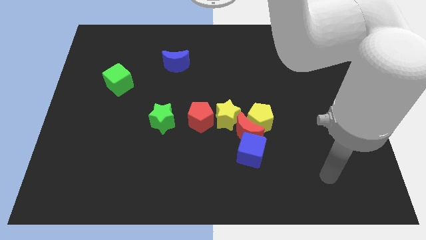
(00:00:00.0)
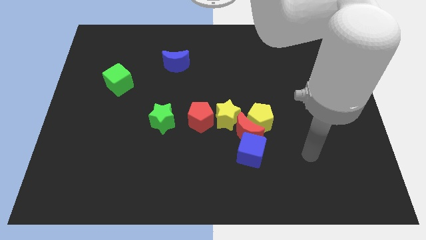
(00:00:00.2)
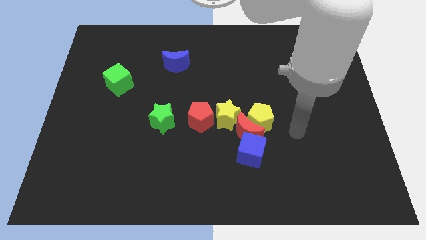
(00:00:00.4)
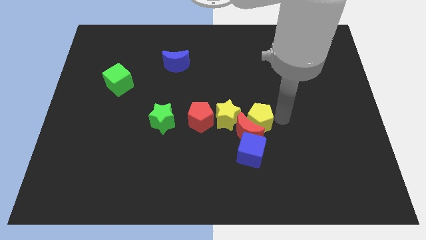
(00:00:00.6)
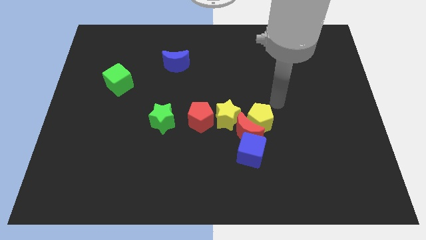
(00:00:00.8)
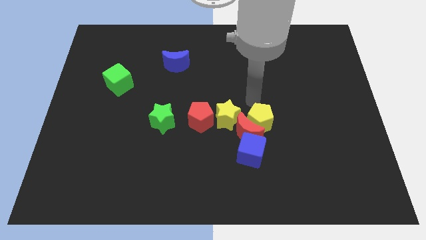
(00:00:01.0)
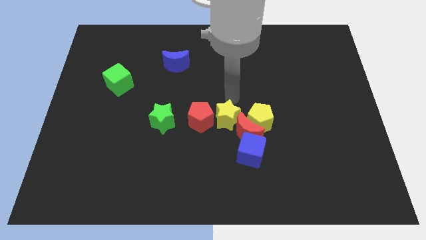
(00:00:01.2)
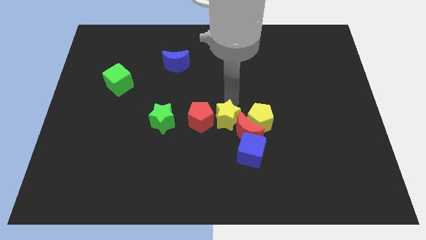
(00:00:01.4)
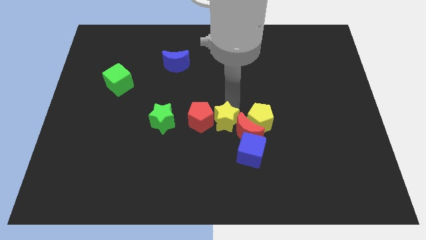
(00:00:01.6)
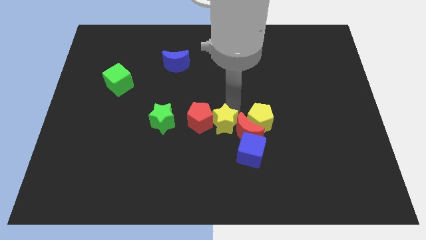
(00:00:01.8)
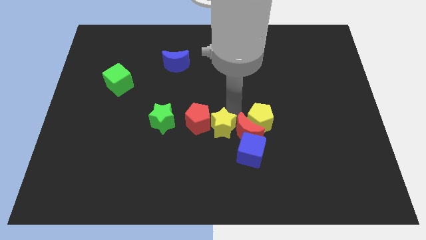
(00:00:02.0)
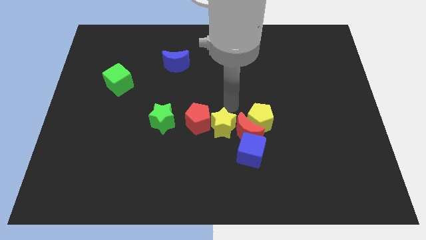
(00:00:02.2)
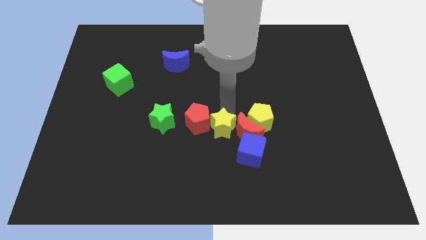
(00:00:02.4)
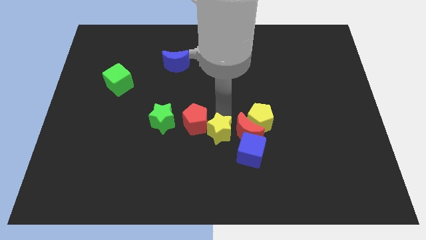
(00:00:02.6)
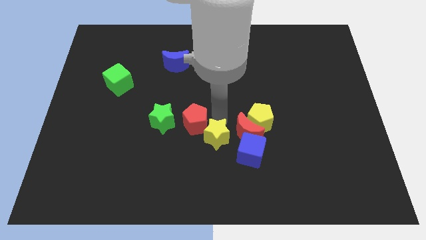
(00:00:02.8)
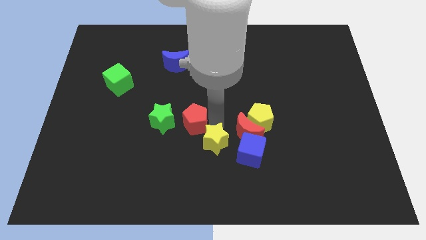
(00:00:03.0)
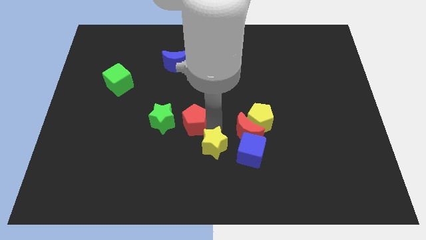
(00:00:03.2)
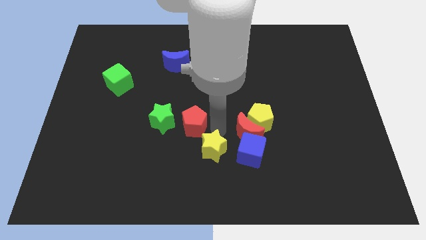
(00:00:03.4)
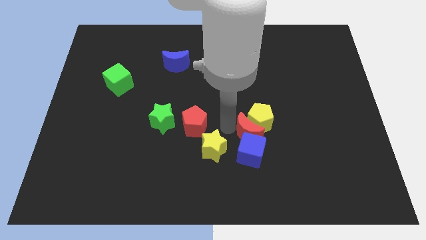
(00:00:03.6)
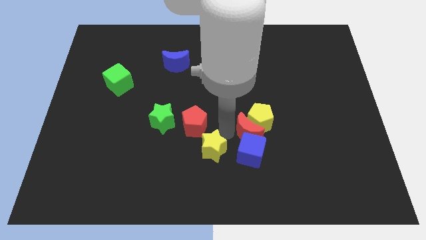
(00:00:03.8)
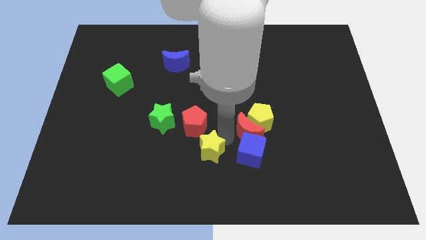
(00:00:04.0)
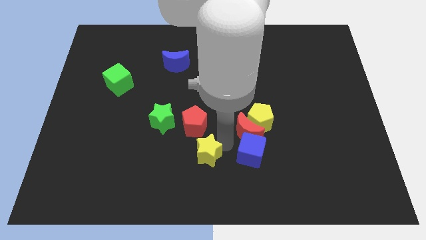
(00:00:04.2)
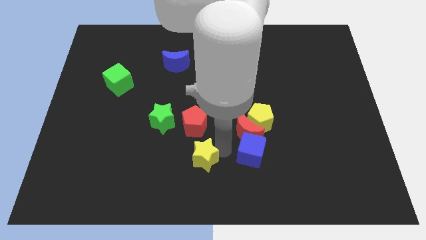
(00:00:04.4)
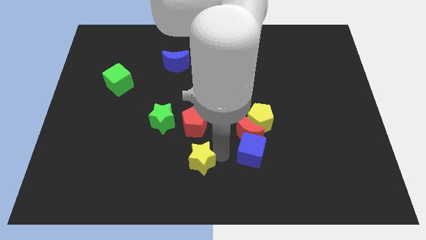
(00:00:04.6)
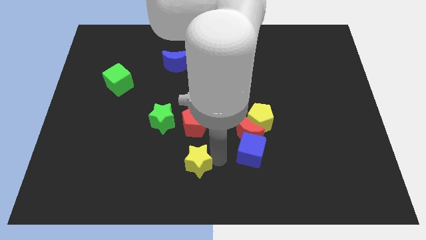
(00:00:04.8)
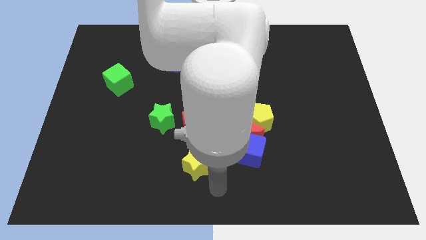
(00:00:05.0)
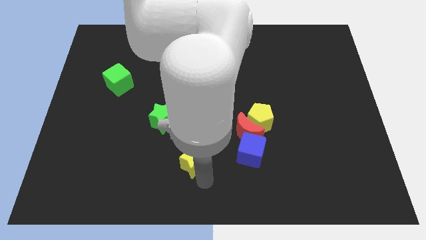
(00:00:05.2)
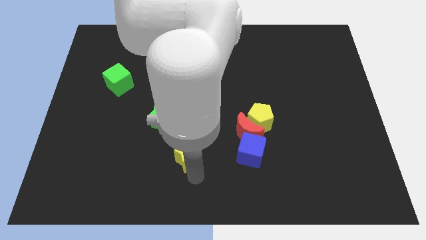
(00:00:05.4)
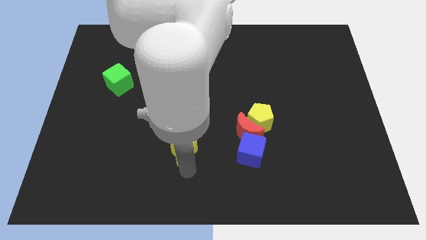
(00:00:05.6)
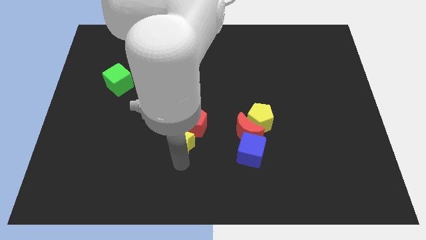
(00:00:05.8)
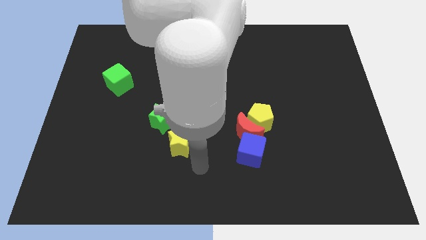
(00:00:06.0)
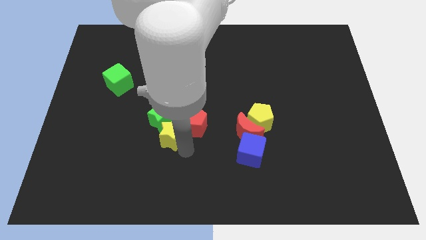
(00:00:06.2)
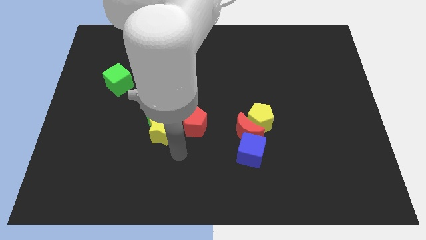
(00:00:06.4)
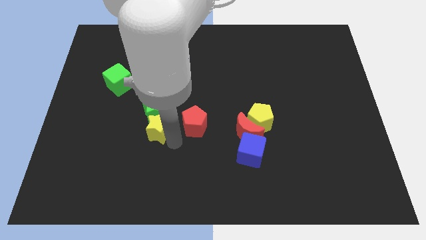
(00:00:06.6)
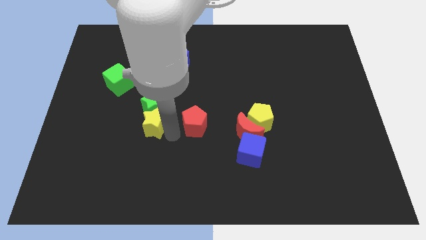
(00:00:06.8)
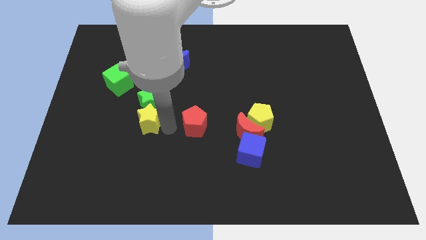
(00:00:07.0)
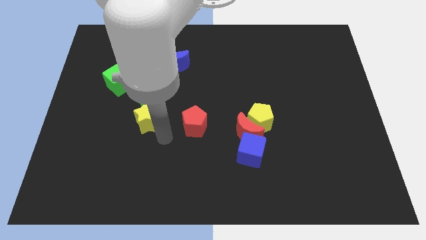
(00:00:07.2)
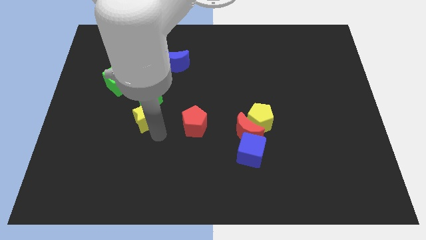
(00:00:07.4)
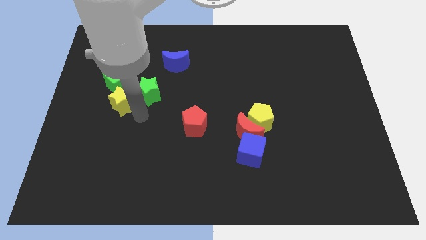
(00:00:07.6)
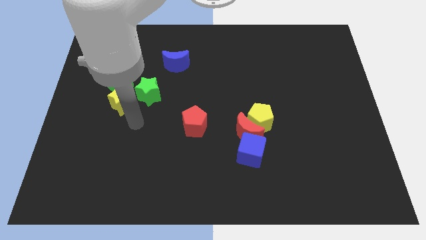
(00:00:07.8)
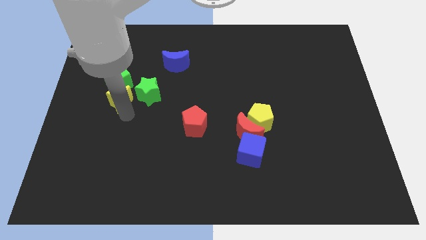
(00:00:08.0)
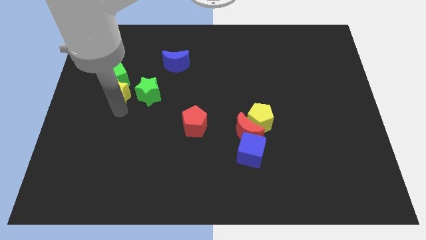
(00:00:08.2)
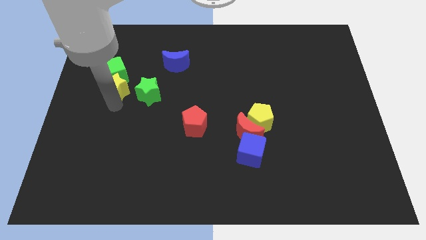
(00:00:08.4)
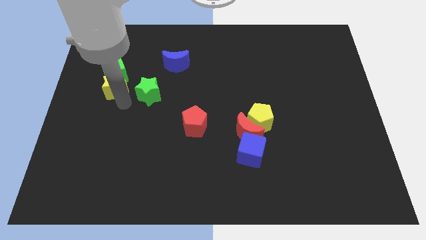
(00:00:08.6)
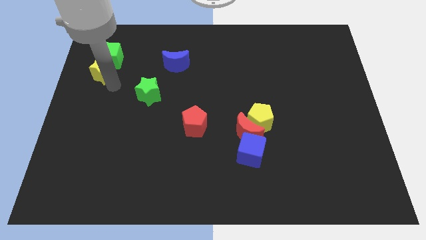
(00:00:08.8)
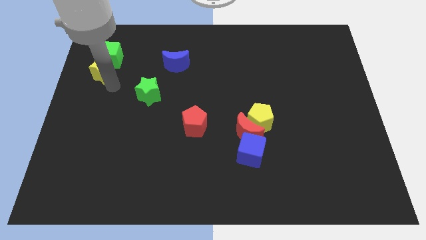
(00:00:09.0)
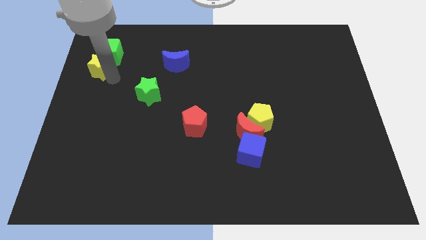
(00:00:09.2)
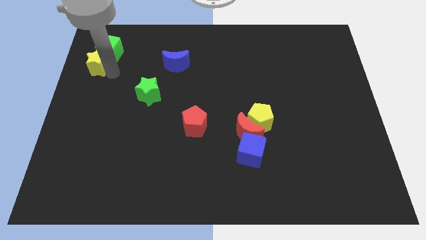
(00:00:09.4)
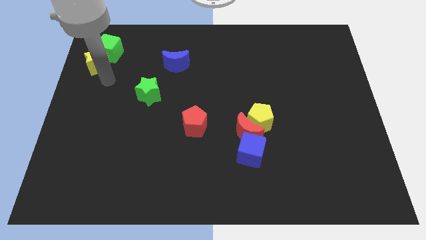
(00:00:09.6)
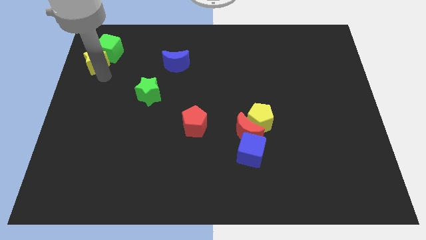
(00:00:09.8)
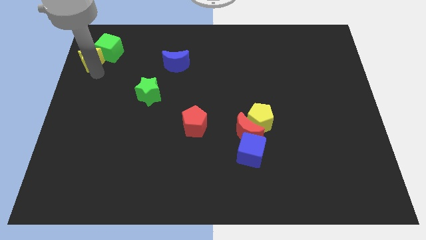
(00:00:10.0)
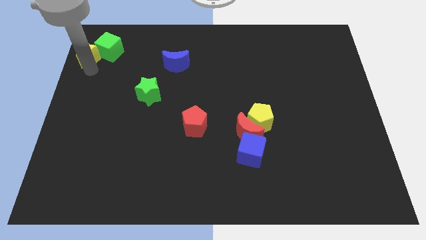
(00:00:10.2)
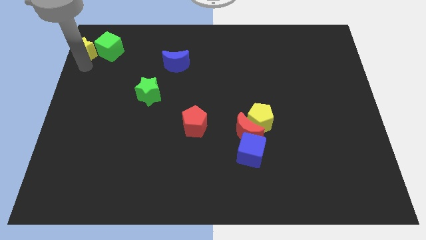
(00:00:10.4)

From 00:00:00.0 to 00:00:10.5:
slide the yellow star to the top left corner
